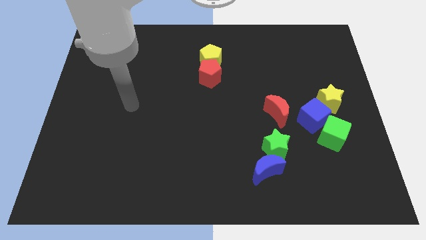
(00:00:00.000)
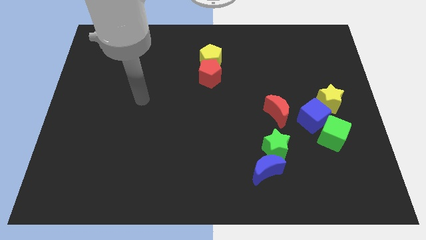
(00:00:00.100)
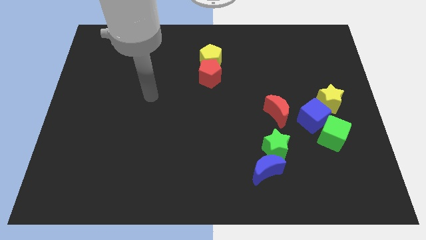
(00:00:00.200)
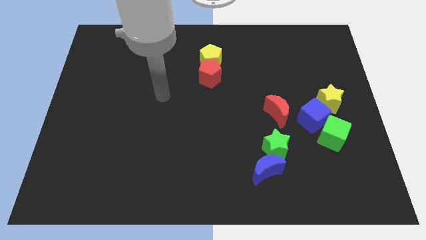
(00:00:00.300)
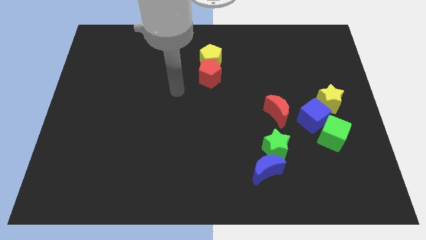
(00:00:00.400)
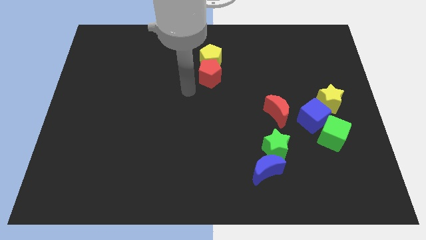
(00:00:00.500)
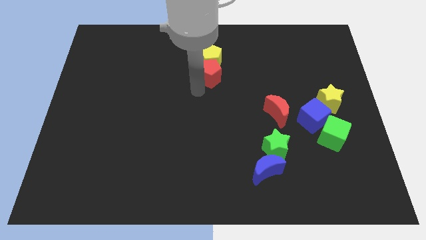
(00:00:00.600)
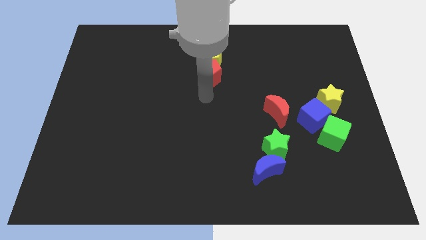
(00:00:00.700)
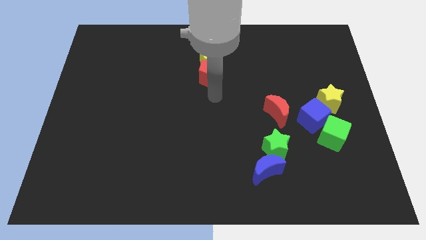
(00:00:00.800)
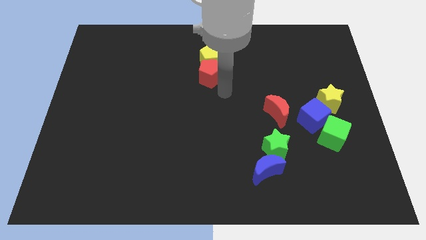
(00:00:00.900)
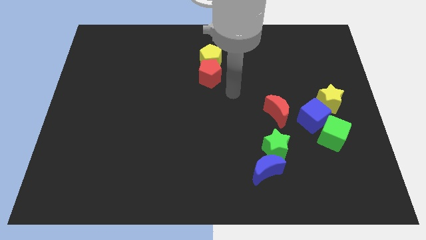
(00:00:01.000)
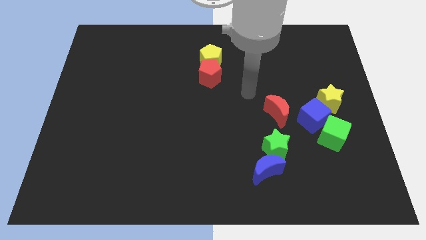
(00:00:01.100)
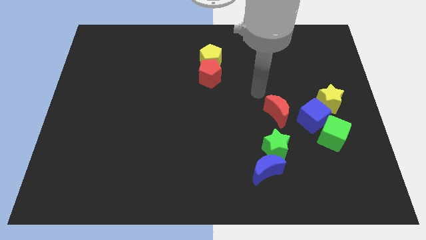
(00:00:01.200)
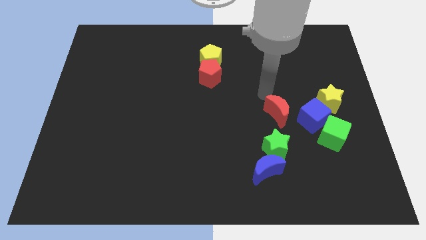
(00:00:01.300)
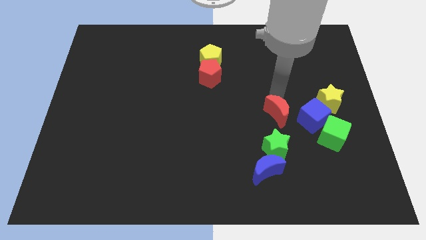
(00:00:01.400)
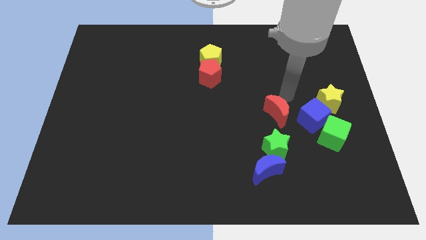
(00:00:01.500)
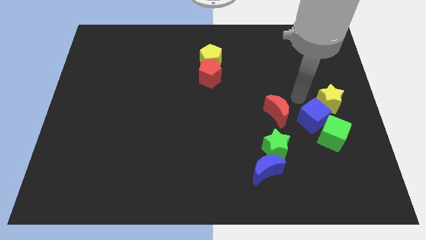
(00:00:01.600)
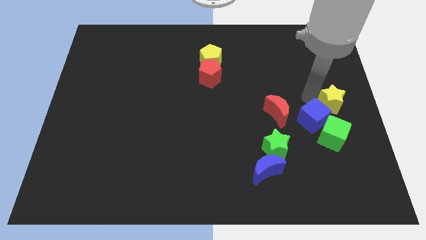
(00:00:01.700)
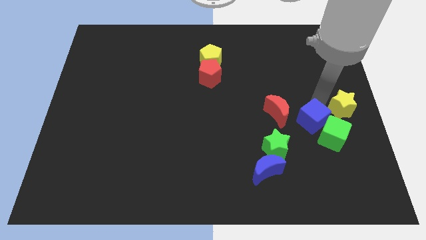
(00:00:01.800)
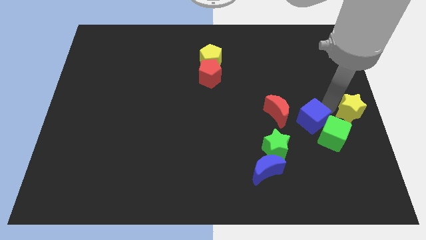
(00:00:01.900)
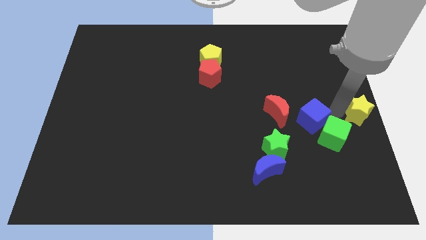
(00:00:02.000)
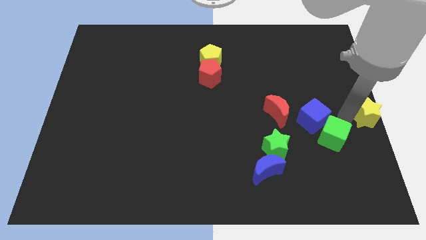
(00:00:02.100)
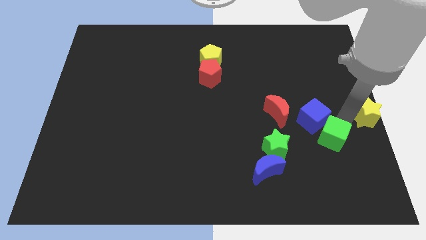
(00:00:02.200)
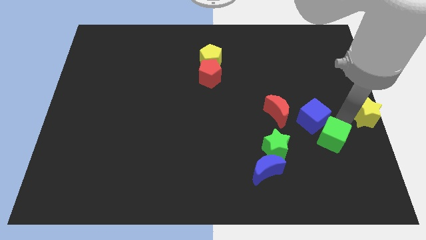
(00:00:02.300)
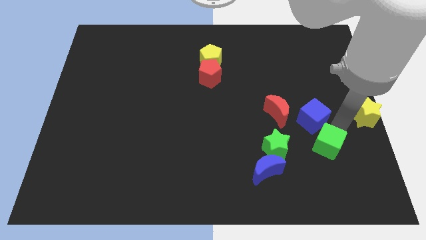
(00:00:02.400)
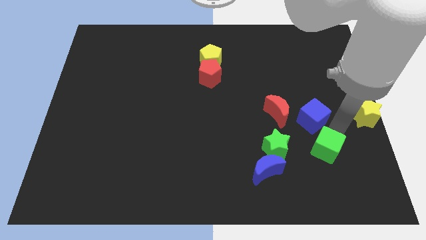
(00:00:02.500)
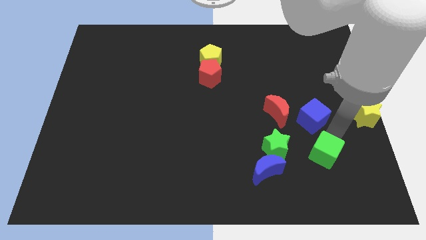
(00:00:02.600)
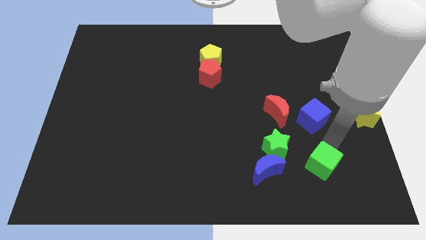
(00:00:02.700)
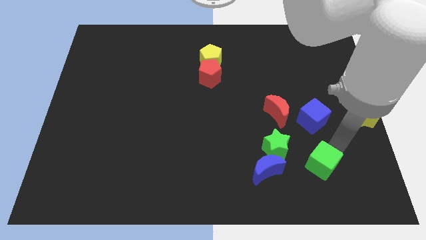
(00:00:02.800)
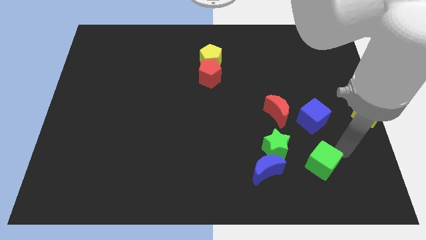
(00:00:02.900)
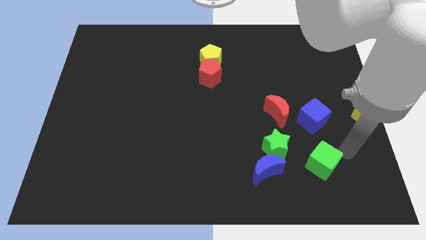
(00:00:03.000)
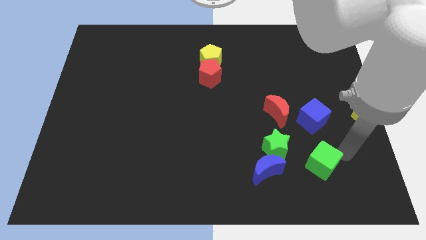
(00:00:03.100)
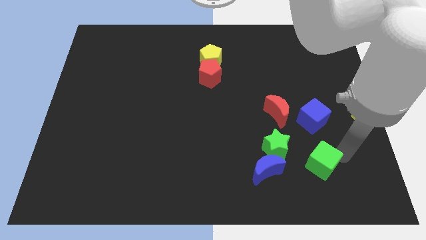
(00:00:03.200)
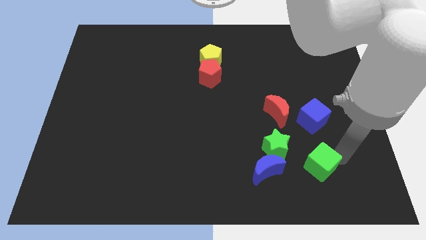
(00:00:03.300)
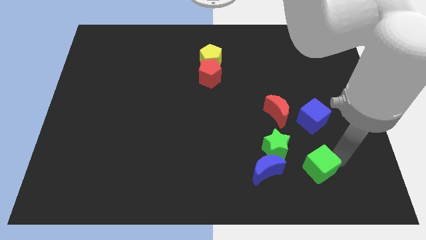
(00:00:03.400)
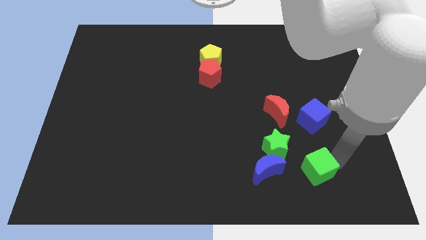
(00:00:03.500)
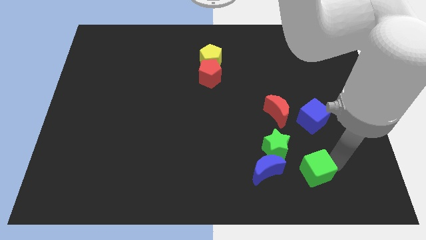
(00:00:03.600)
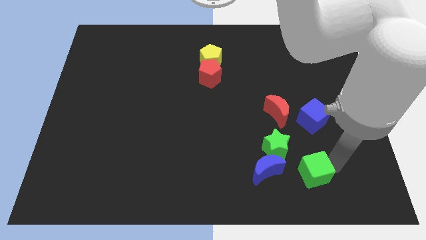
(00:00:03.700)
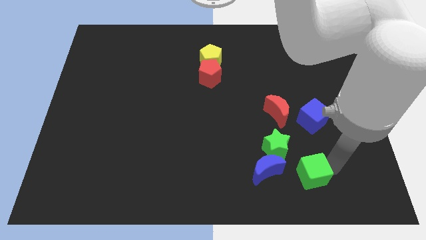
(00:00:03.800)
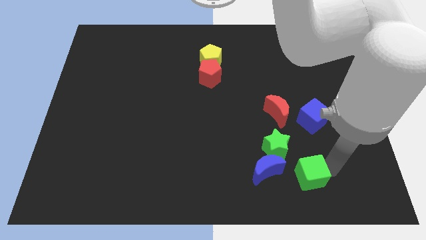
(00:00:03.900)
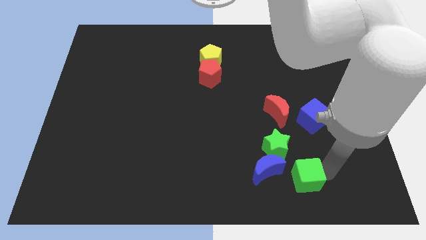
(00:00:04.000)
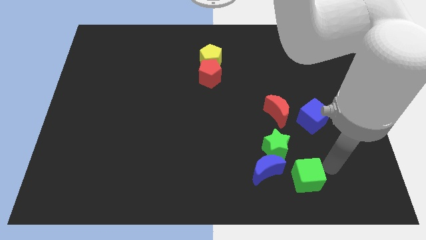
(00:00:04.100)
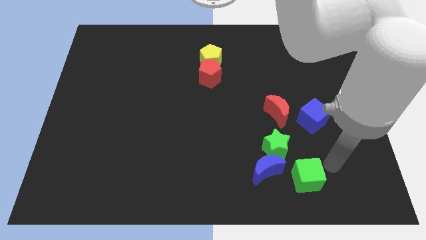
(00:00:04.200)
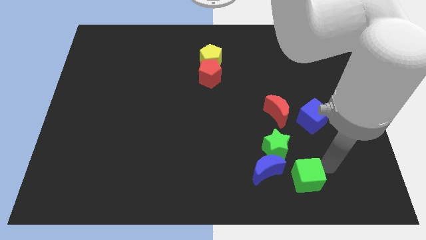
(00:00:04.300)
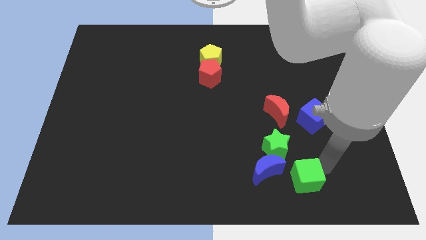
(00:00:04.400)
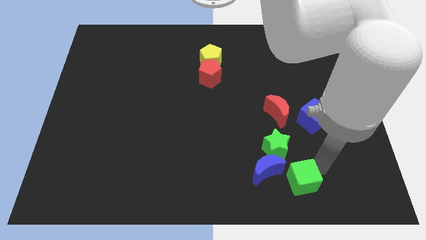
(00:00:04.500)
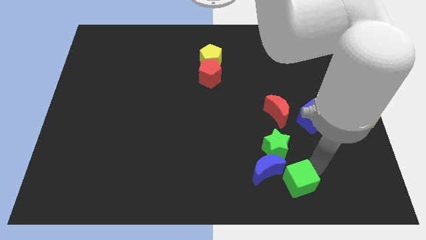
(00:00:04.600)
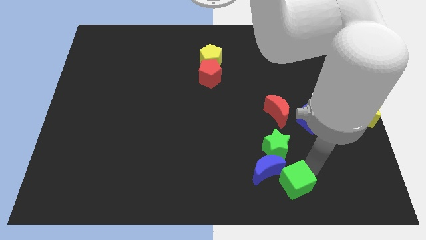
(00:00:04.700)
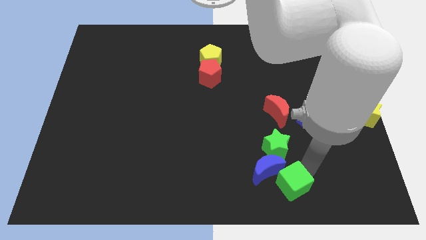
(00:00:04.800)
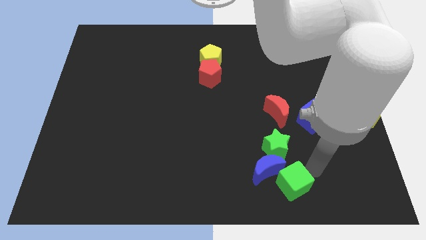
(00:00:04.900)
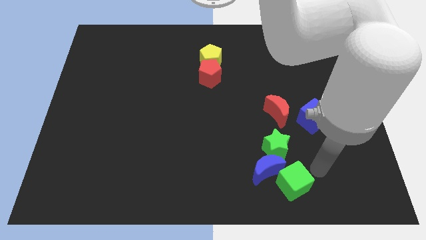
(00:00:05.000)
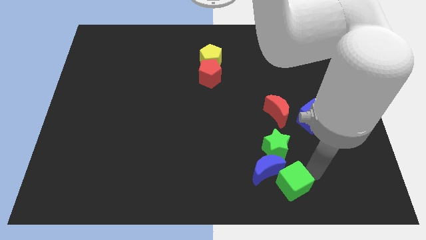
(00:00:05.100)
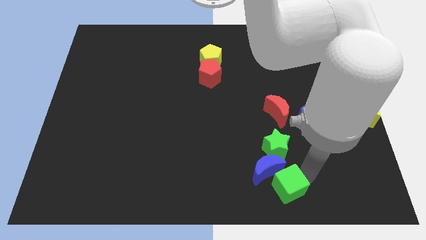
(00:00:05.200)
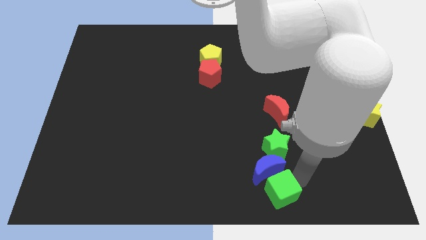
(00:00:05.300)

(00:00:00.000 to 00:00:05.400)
slide the green cube to the bottom

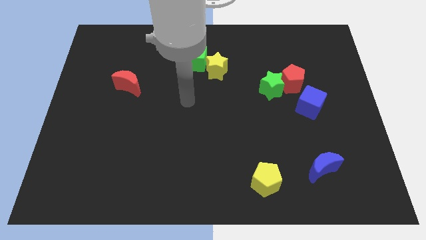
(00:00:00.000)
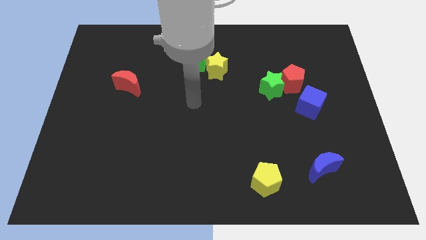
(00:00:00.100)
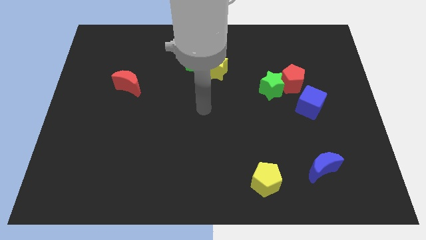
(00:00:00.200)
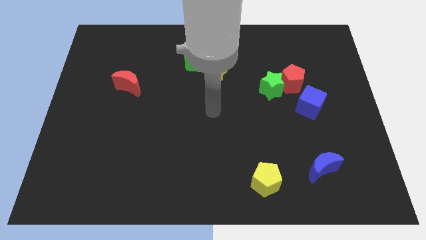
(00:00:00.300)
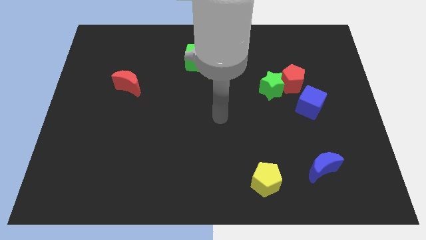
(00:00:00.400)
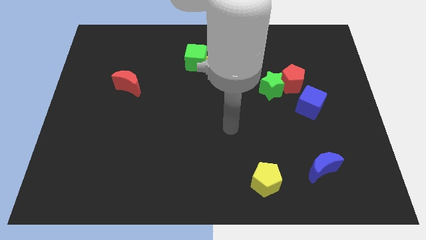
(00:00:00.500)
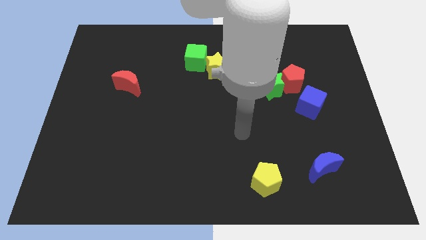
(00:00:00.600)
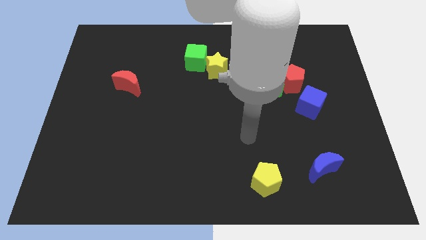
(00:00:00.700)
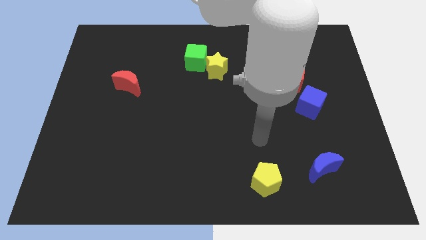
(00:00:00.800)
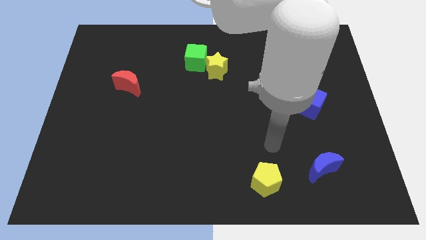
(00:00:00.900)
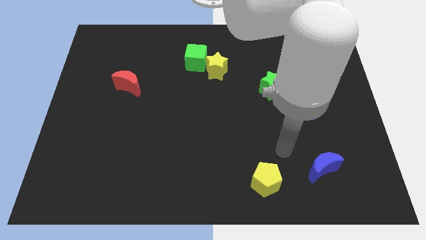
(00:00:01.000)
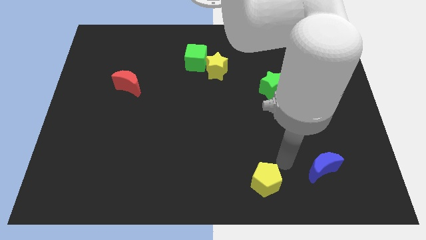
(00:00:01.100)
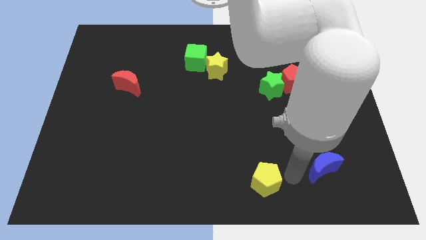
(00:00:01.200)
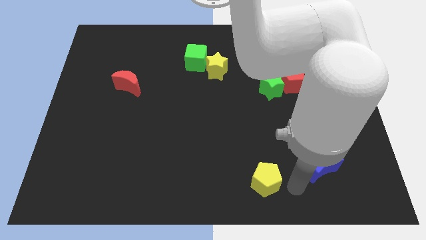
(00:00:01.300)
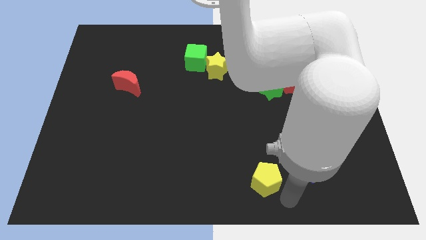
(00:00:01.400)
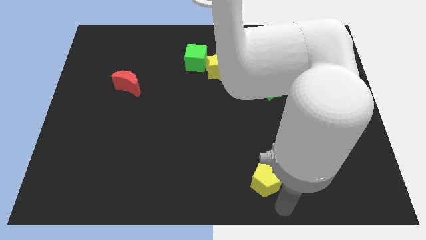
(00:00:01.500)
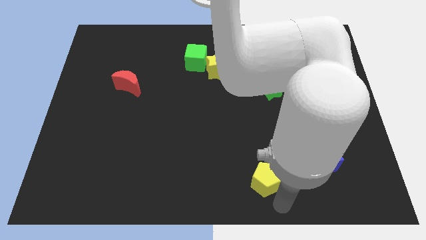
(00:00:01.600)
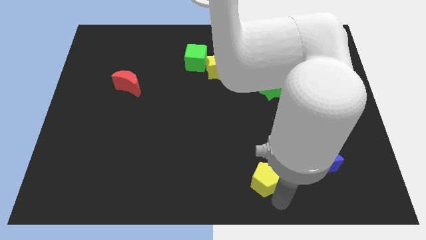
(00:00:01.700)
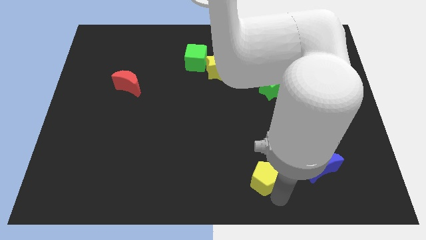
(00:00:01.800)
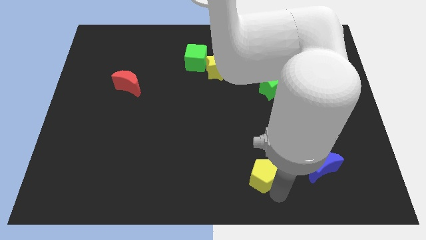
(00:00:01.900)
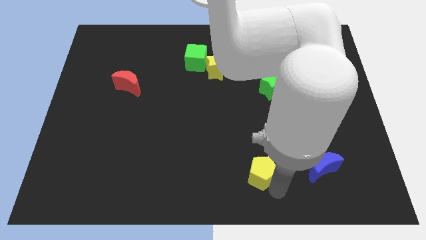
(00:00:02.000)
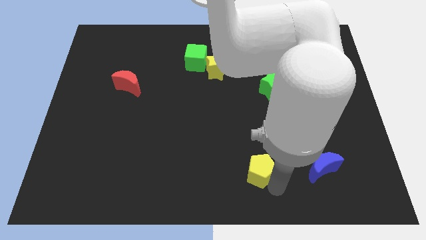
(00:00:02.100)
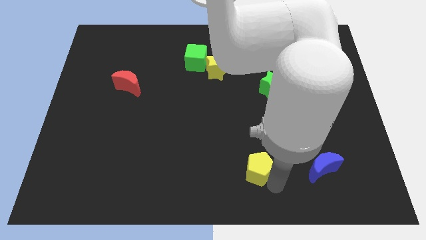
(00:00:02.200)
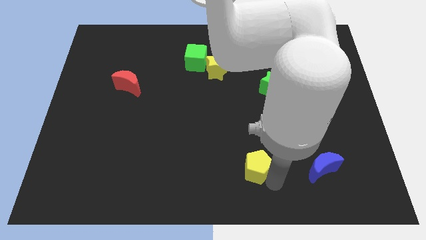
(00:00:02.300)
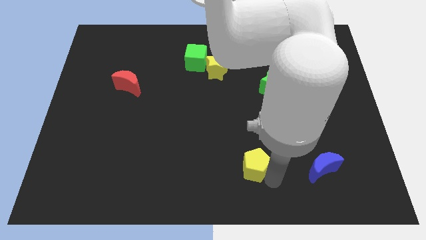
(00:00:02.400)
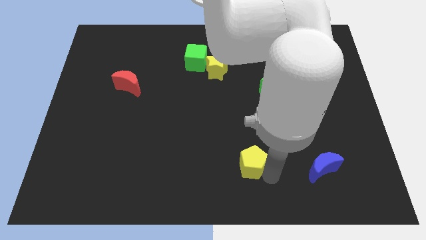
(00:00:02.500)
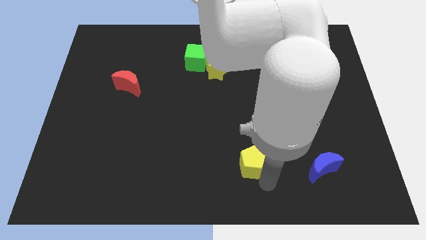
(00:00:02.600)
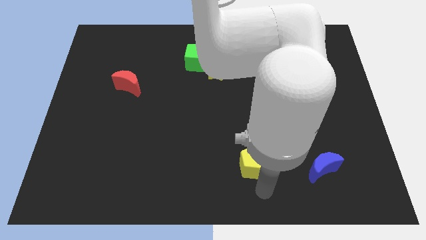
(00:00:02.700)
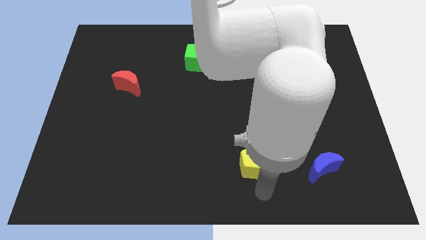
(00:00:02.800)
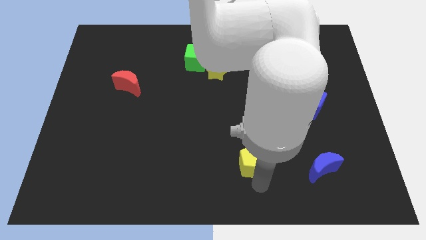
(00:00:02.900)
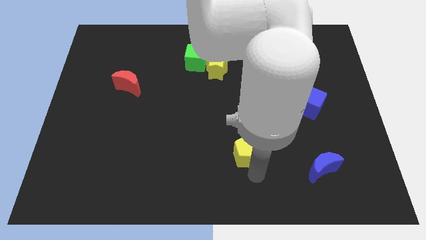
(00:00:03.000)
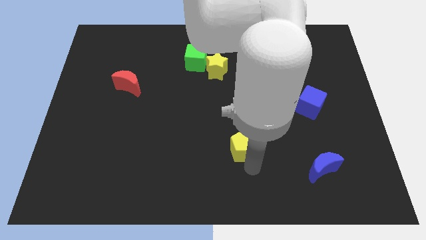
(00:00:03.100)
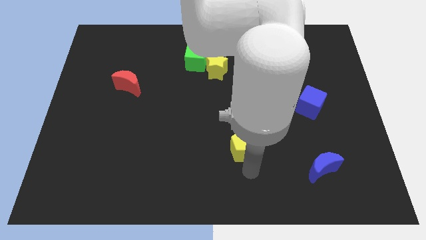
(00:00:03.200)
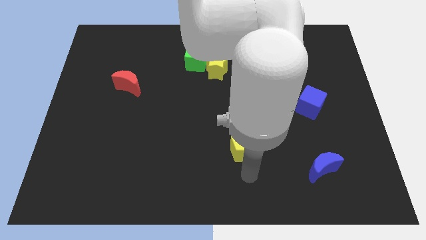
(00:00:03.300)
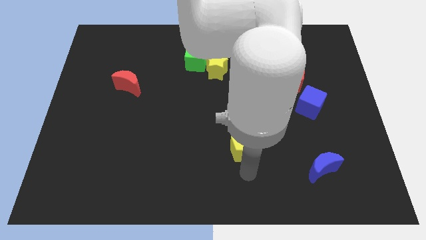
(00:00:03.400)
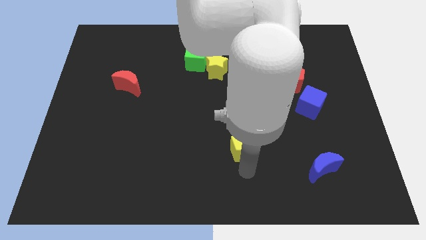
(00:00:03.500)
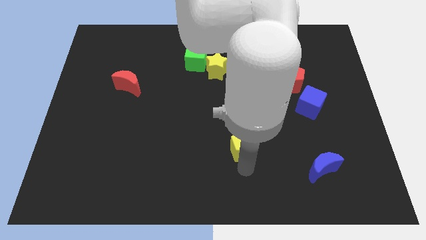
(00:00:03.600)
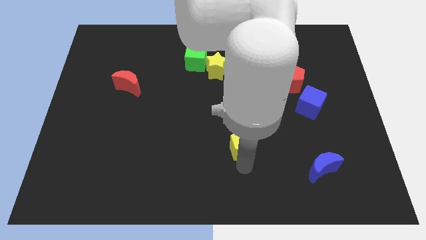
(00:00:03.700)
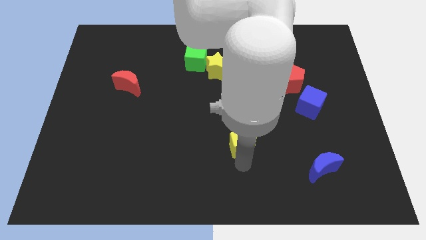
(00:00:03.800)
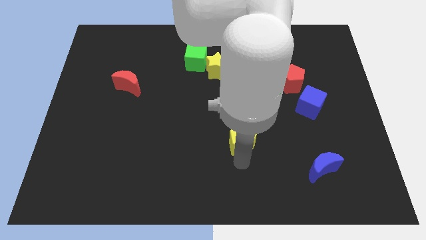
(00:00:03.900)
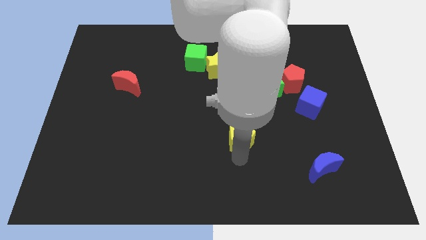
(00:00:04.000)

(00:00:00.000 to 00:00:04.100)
slide the yellow pentagon to the middle of the board
